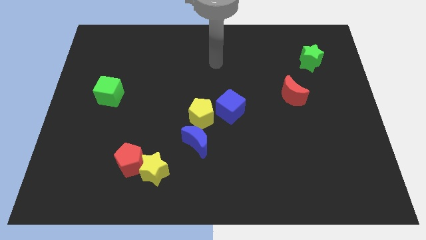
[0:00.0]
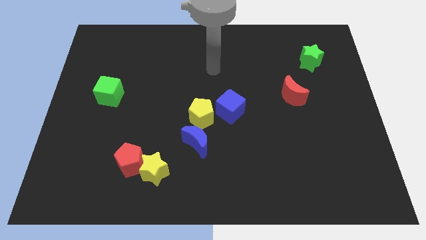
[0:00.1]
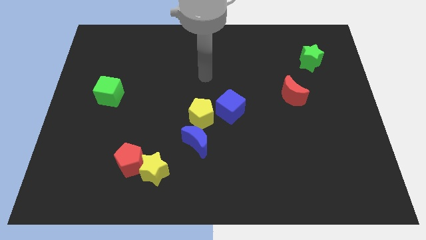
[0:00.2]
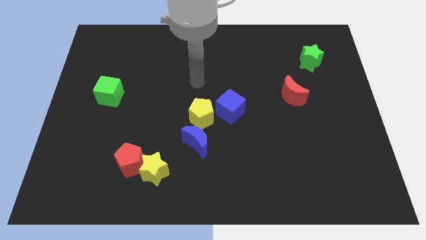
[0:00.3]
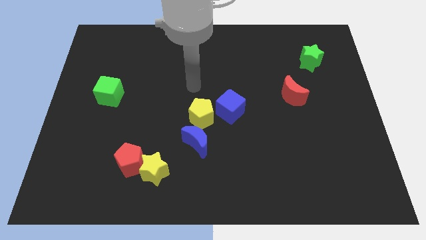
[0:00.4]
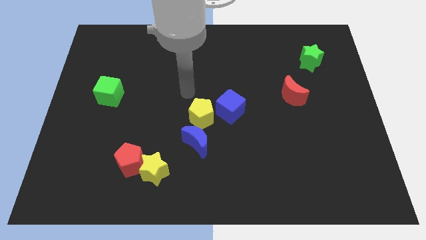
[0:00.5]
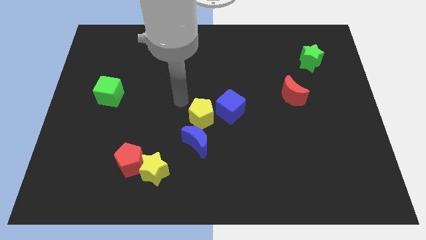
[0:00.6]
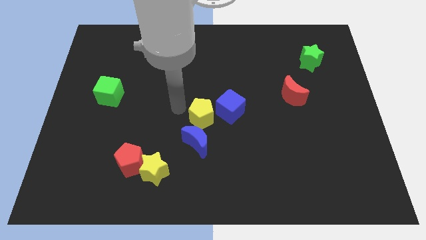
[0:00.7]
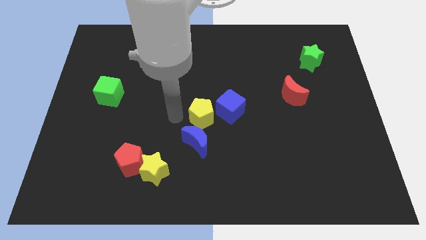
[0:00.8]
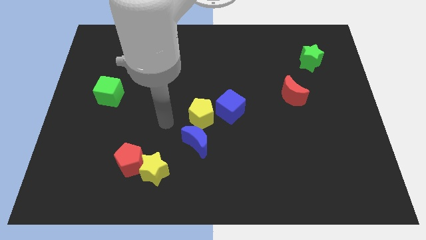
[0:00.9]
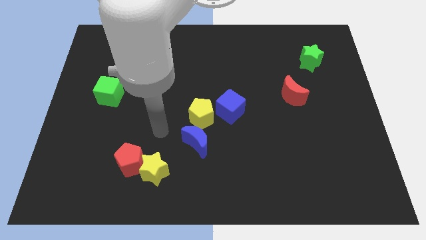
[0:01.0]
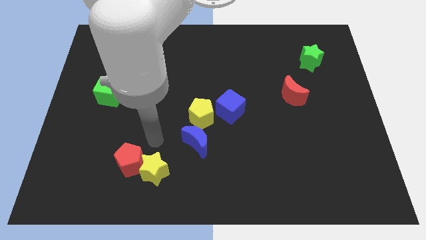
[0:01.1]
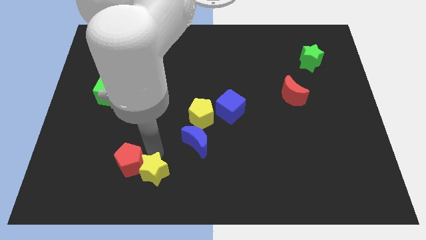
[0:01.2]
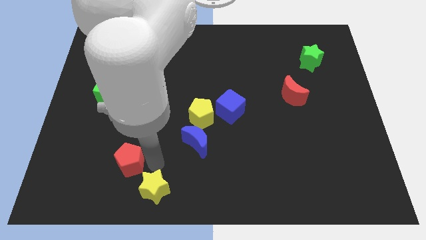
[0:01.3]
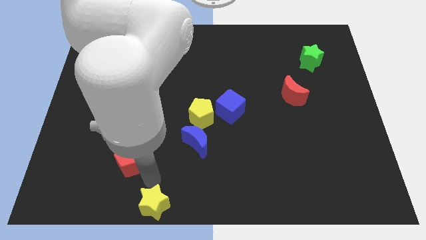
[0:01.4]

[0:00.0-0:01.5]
move the red pentagon away from the yellow star

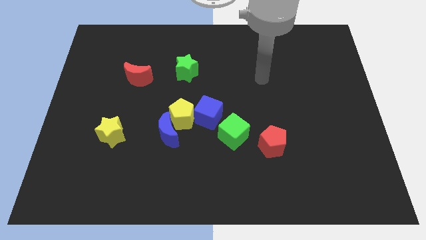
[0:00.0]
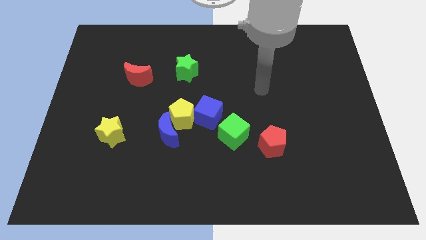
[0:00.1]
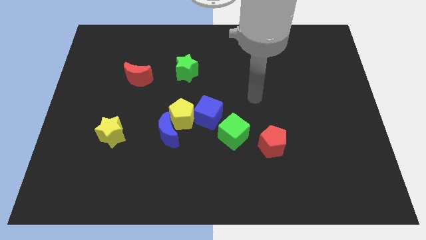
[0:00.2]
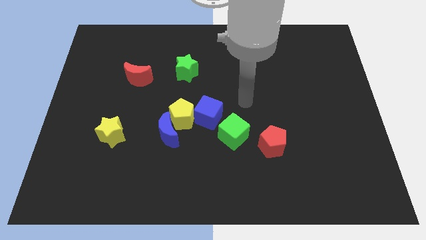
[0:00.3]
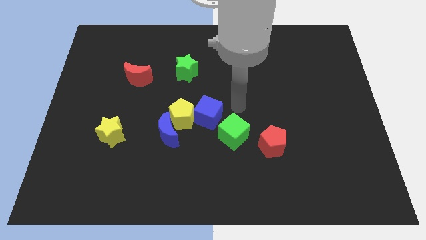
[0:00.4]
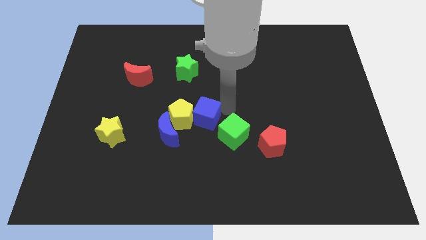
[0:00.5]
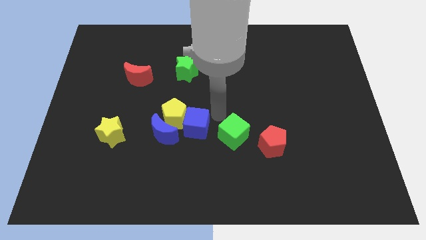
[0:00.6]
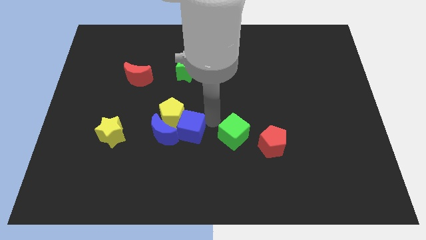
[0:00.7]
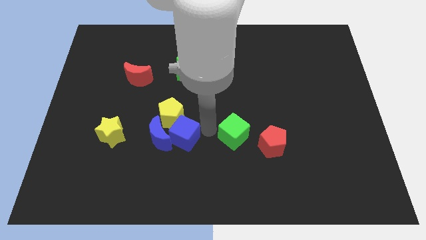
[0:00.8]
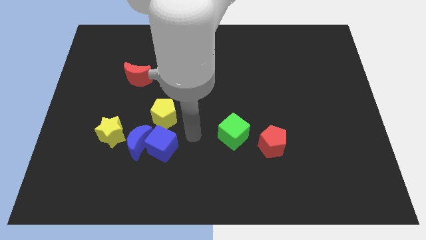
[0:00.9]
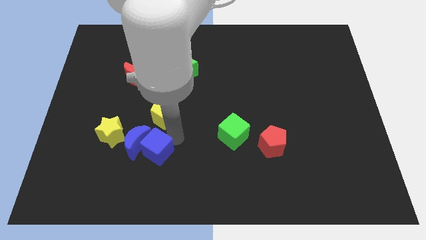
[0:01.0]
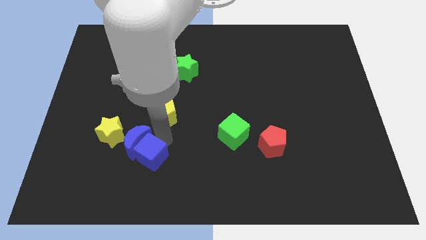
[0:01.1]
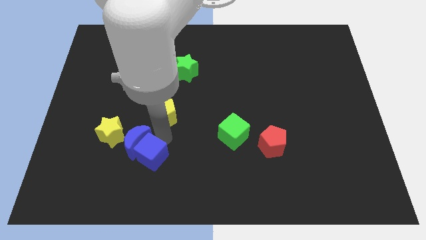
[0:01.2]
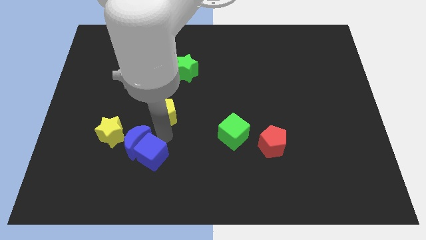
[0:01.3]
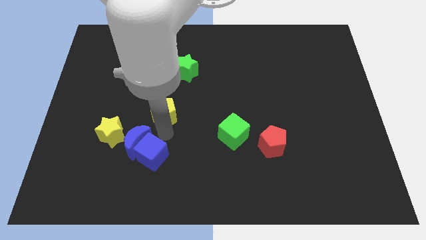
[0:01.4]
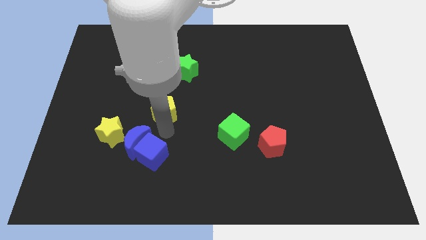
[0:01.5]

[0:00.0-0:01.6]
separate the yellow pentagon from the blue moon and blue cube

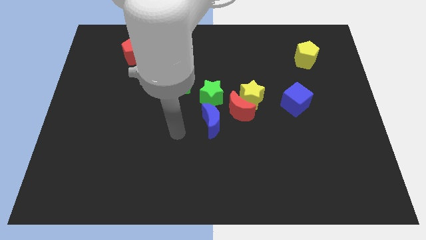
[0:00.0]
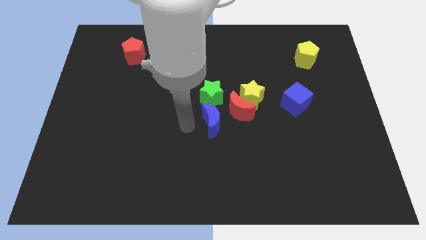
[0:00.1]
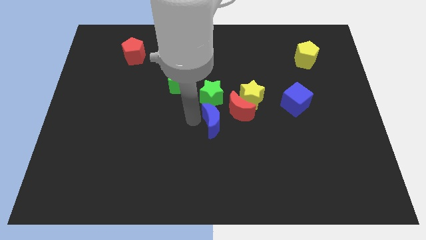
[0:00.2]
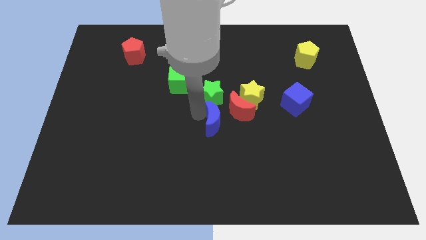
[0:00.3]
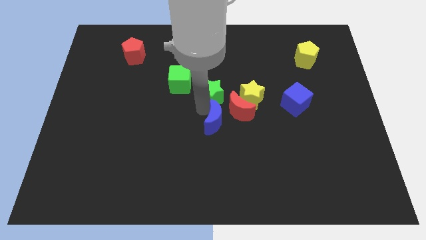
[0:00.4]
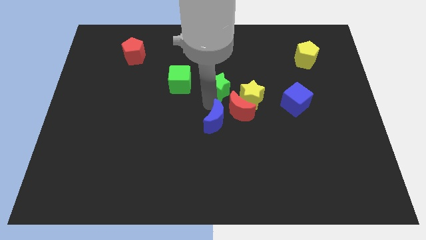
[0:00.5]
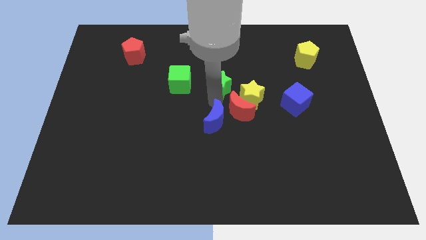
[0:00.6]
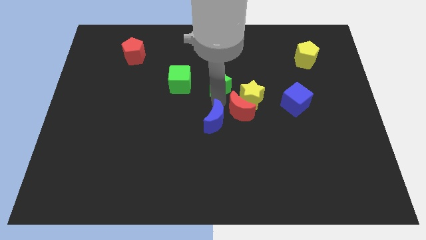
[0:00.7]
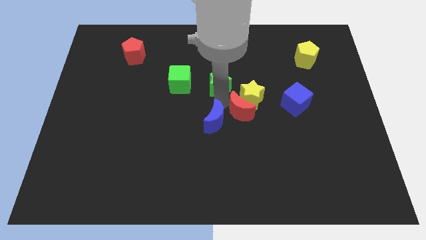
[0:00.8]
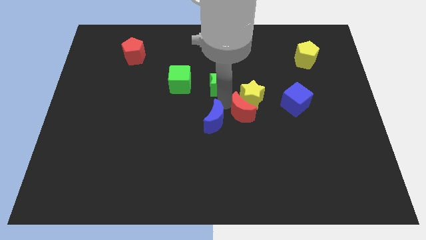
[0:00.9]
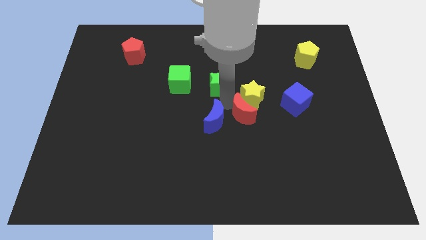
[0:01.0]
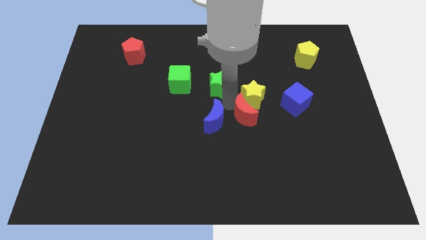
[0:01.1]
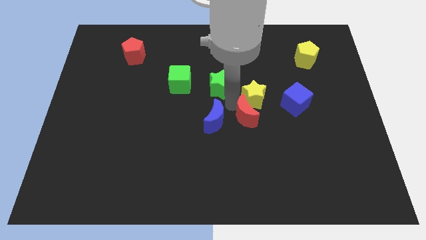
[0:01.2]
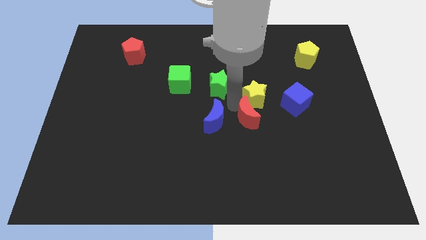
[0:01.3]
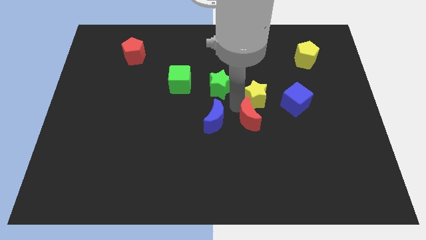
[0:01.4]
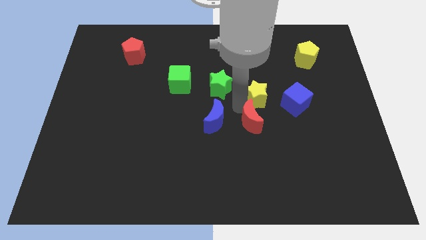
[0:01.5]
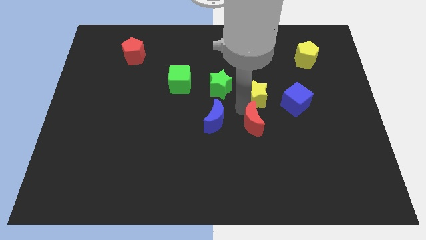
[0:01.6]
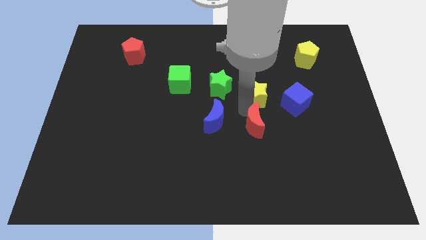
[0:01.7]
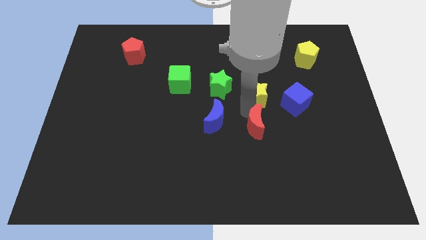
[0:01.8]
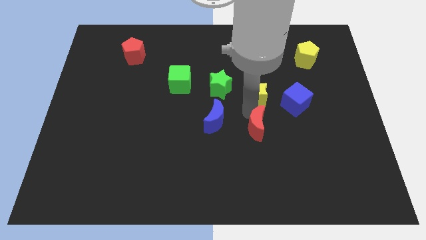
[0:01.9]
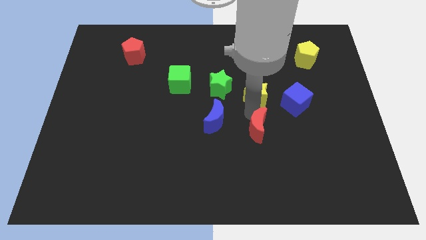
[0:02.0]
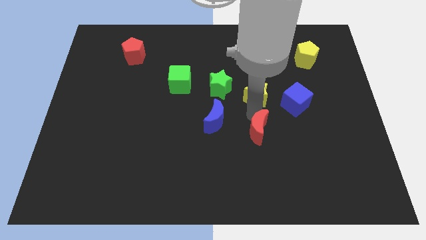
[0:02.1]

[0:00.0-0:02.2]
separate the red moon from the yellow star, blue moon, and green star

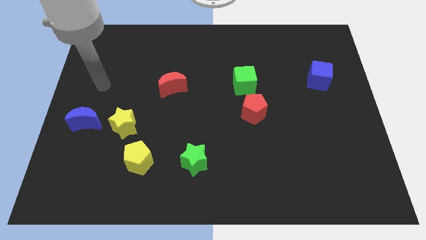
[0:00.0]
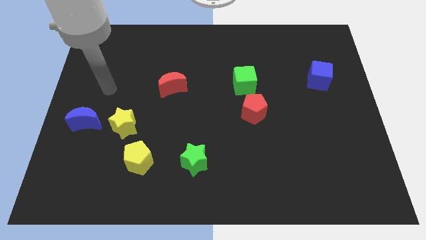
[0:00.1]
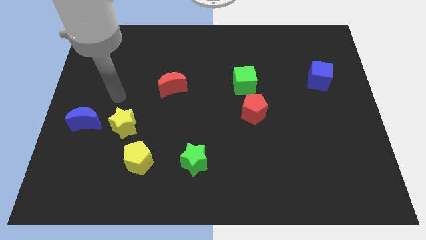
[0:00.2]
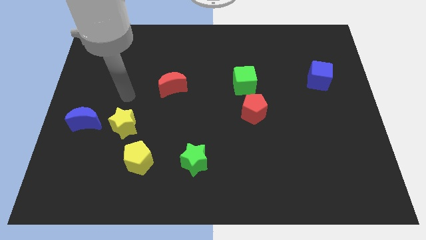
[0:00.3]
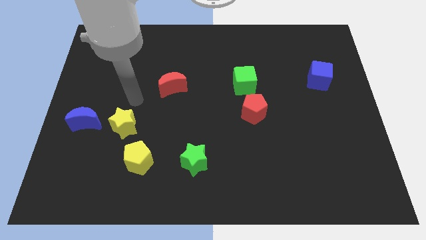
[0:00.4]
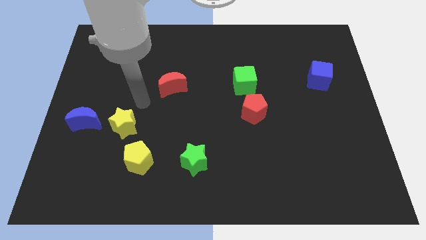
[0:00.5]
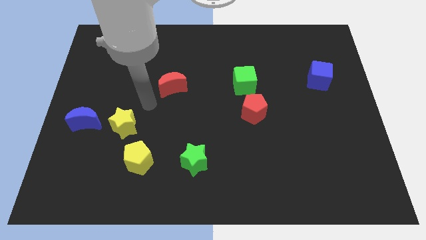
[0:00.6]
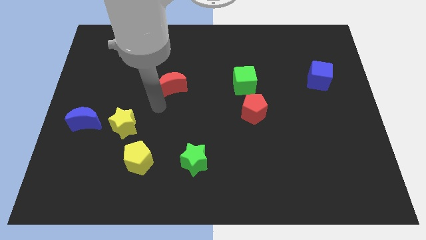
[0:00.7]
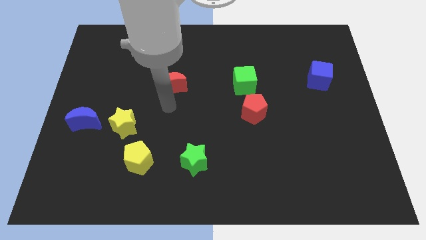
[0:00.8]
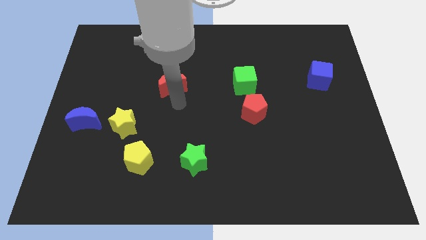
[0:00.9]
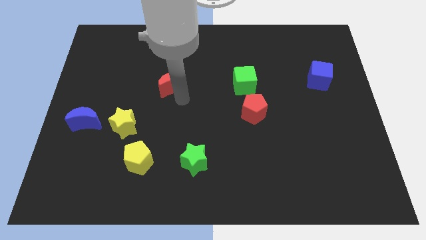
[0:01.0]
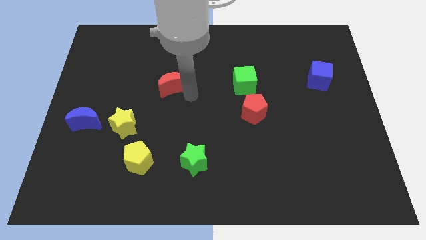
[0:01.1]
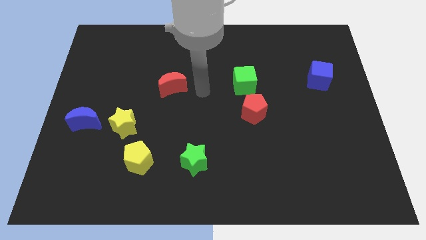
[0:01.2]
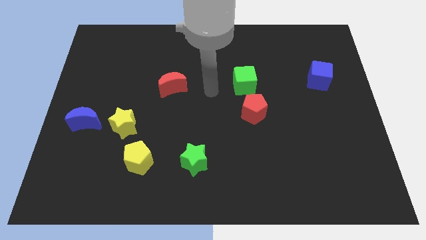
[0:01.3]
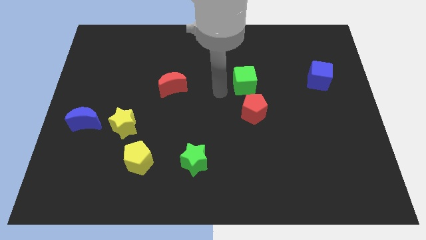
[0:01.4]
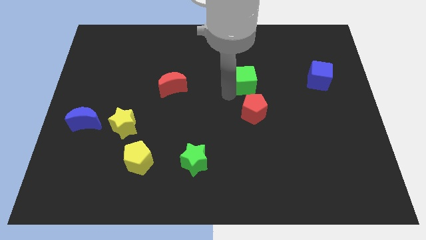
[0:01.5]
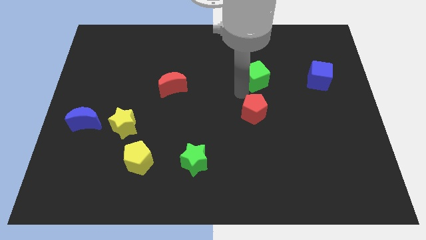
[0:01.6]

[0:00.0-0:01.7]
separate the red pentagon from the green cube

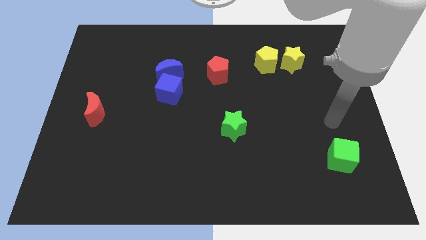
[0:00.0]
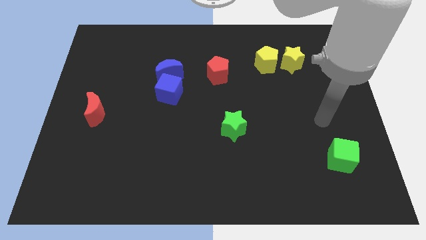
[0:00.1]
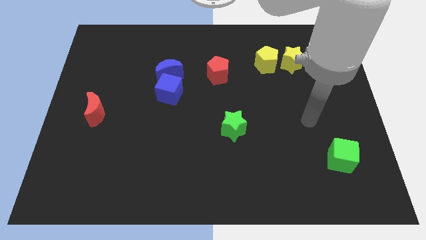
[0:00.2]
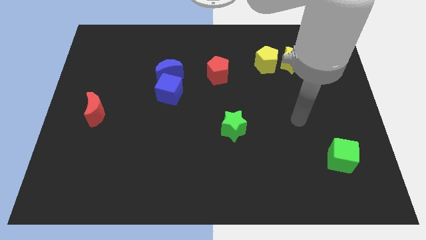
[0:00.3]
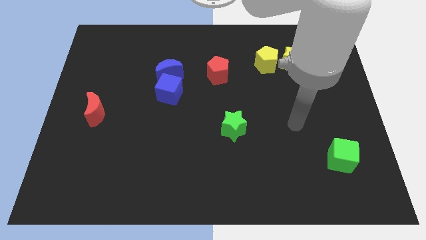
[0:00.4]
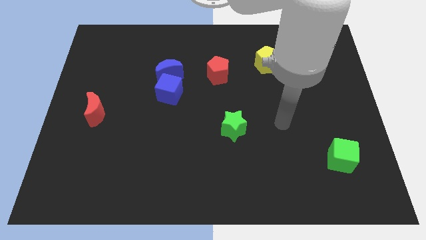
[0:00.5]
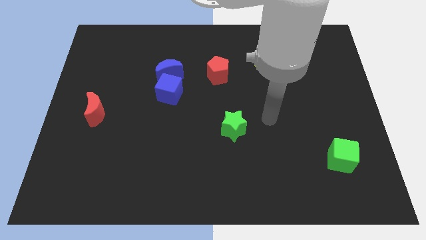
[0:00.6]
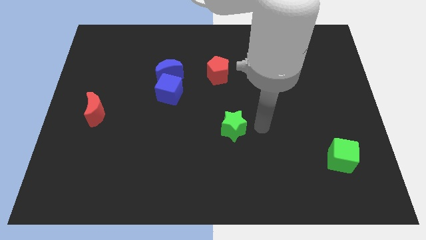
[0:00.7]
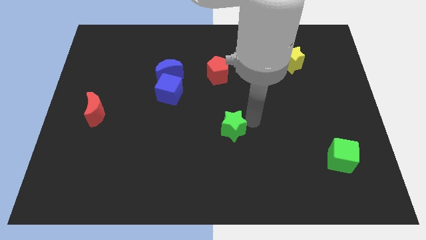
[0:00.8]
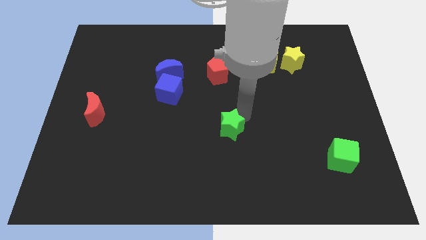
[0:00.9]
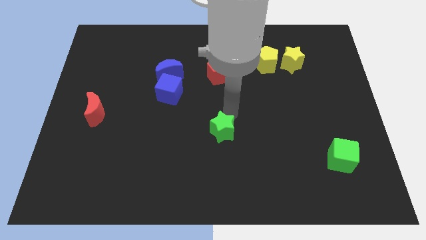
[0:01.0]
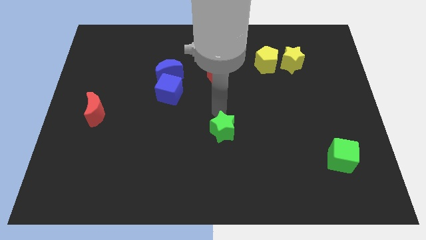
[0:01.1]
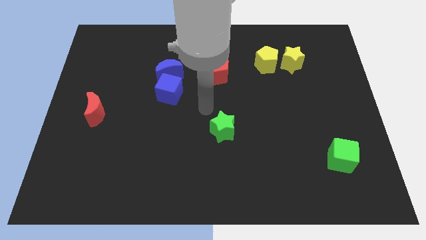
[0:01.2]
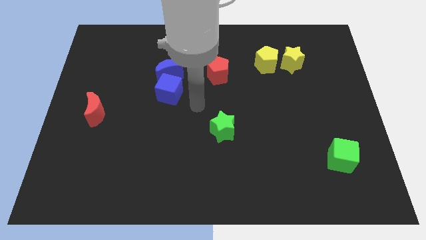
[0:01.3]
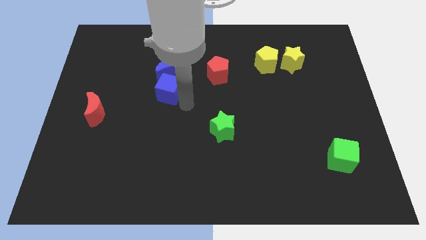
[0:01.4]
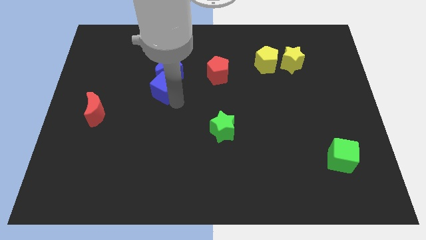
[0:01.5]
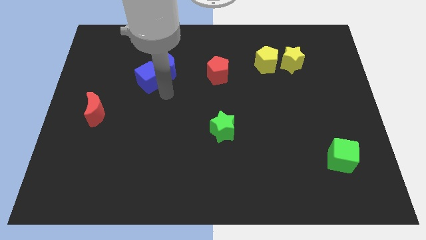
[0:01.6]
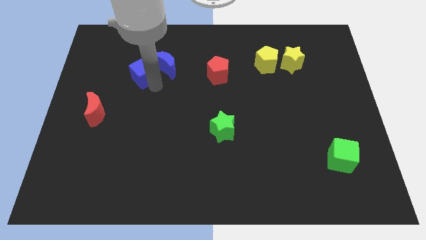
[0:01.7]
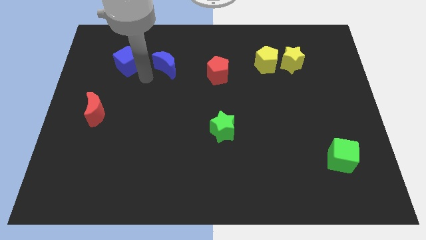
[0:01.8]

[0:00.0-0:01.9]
separate the blue moon from the blue cube

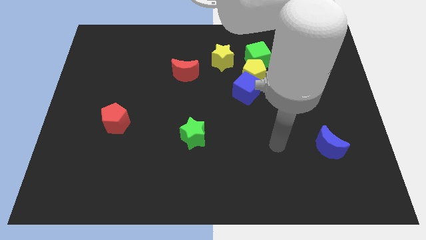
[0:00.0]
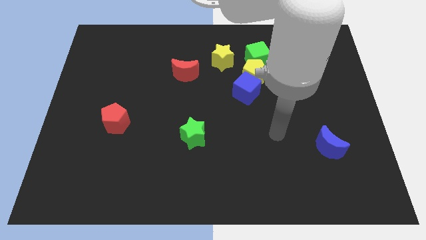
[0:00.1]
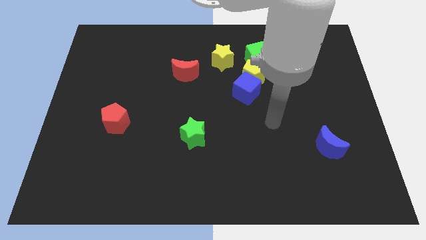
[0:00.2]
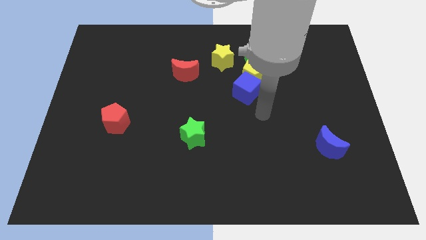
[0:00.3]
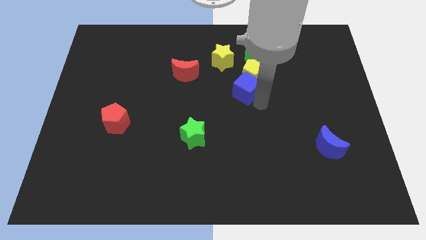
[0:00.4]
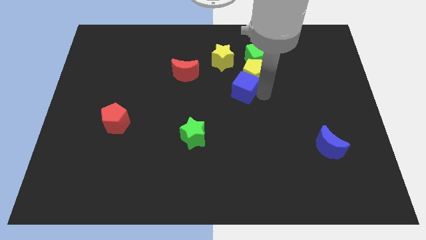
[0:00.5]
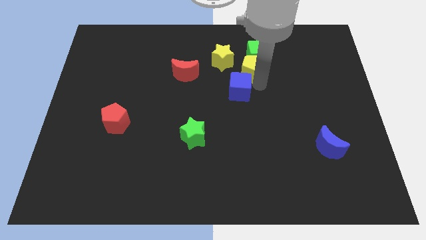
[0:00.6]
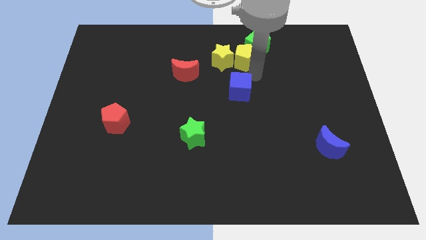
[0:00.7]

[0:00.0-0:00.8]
pull the blue cube apart from the yellow pentagon
